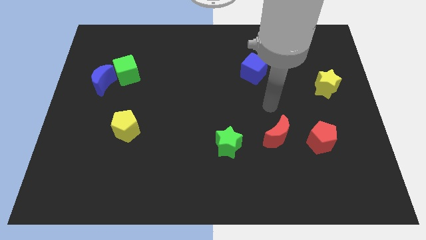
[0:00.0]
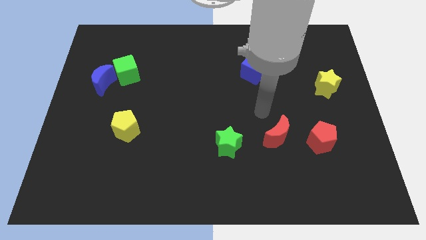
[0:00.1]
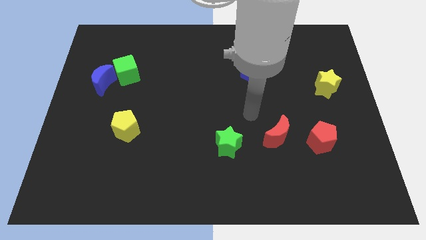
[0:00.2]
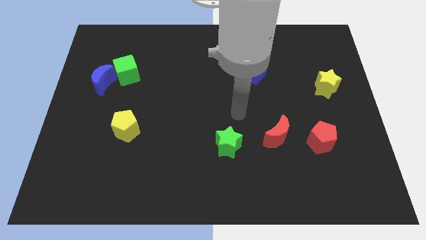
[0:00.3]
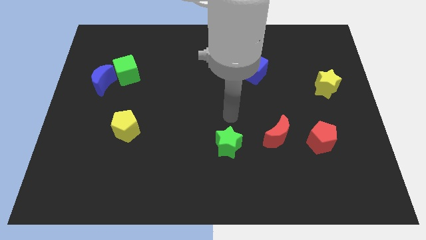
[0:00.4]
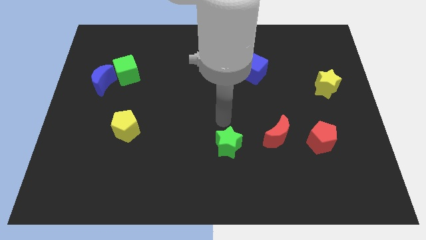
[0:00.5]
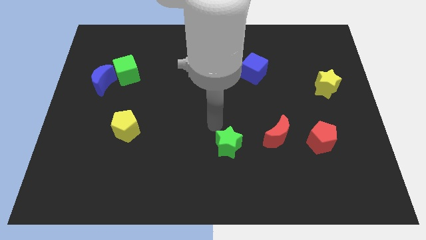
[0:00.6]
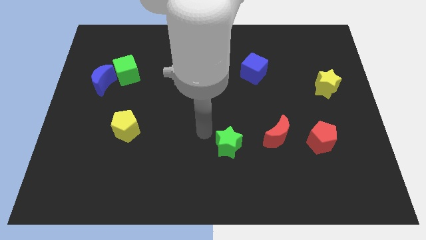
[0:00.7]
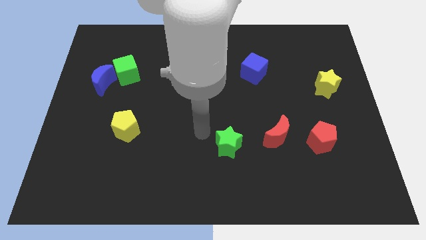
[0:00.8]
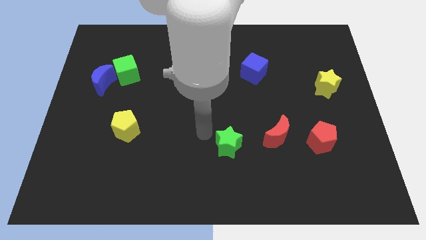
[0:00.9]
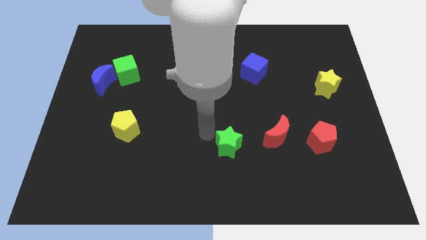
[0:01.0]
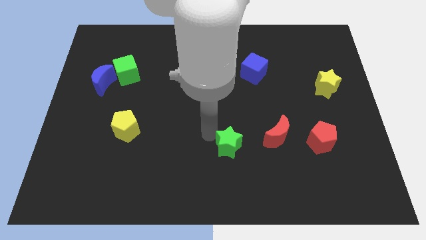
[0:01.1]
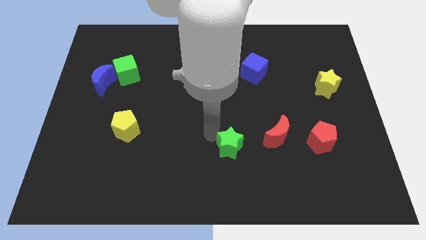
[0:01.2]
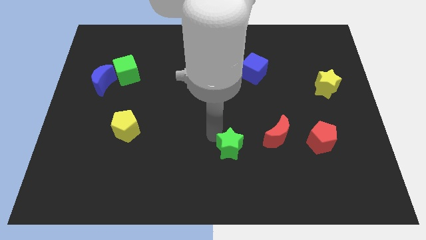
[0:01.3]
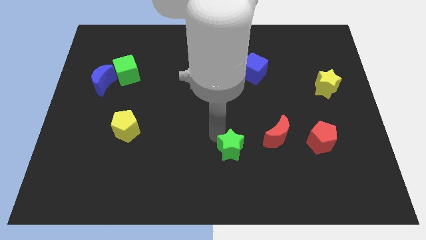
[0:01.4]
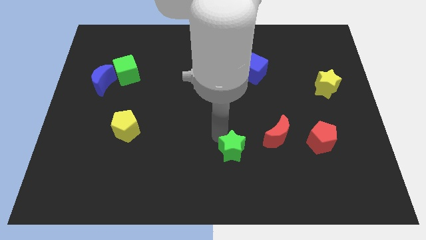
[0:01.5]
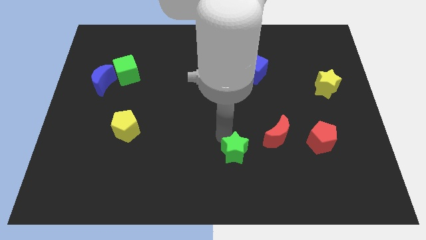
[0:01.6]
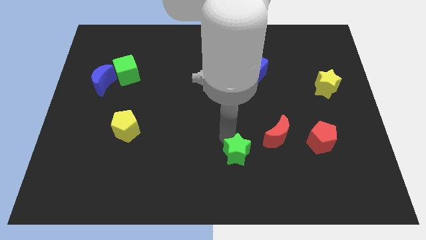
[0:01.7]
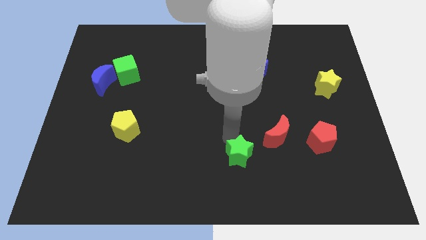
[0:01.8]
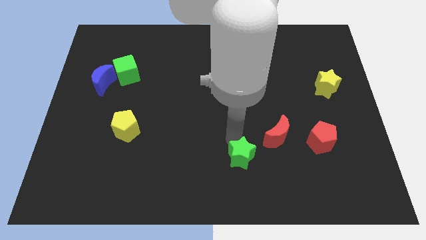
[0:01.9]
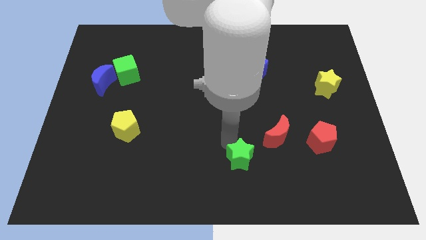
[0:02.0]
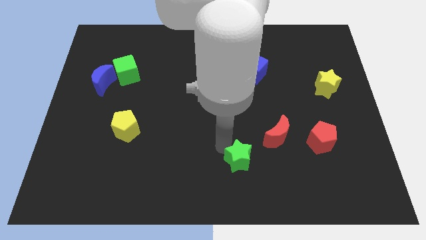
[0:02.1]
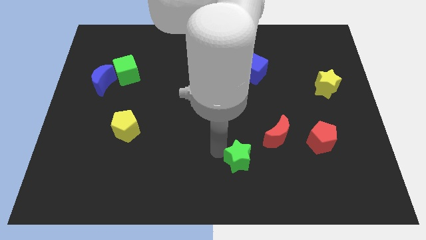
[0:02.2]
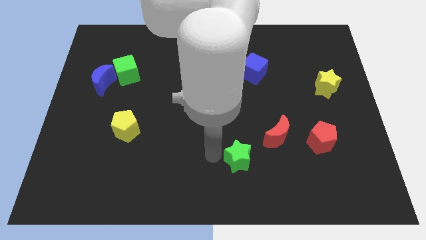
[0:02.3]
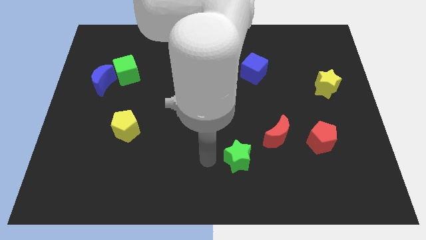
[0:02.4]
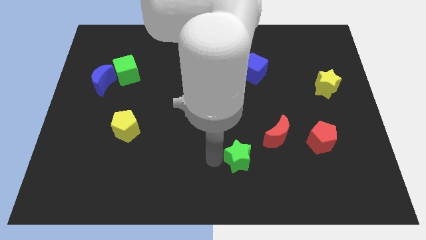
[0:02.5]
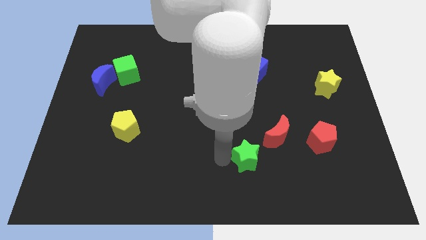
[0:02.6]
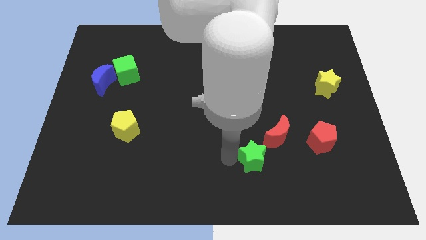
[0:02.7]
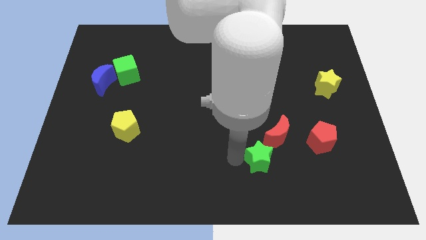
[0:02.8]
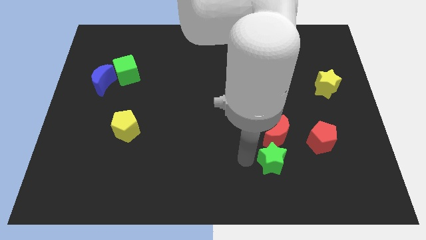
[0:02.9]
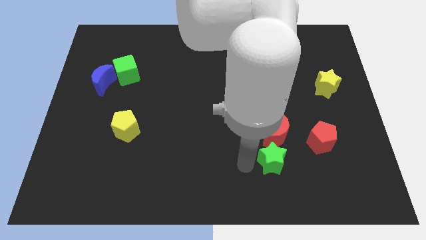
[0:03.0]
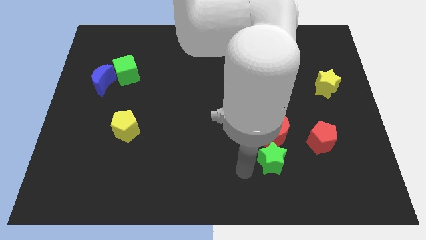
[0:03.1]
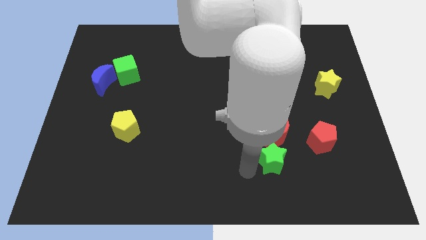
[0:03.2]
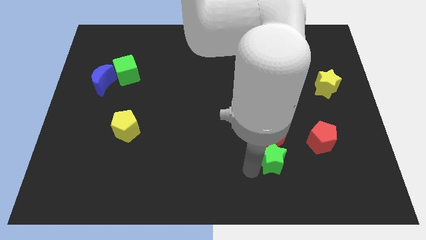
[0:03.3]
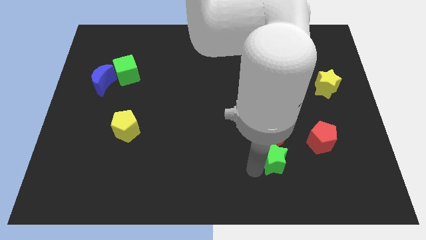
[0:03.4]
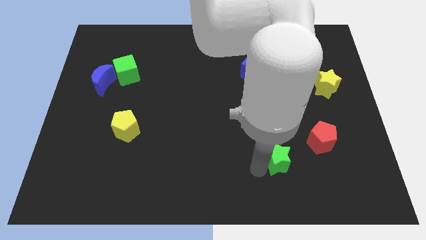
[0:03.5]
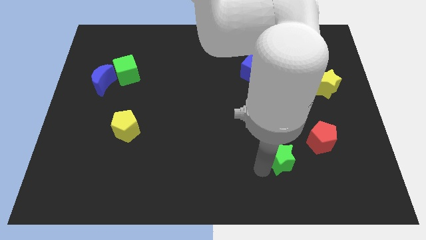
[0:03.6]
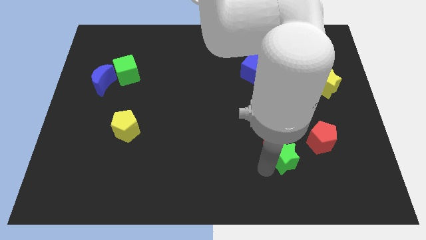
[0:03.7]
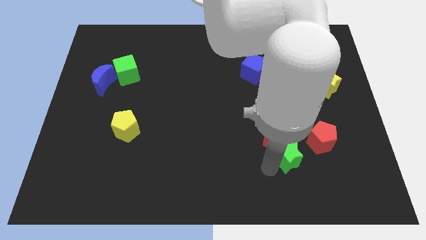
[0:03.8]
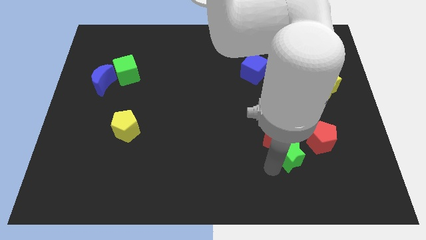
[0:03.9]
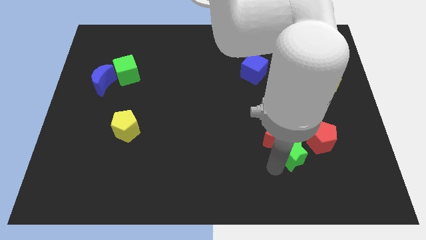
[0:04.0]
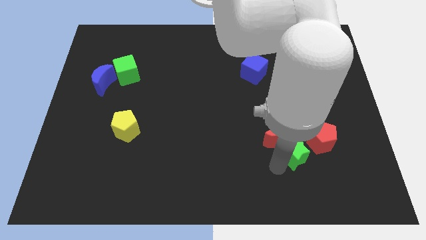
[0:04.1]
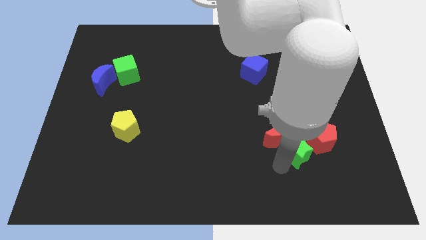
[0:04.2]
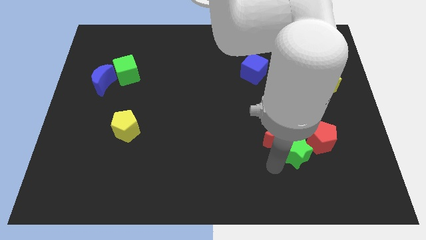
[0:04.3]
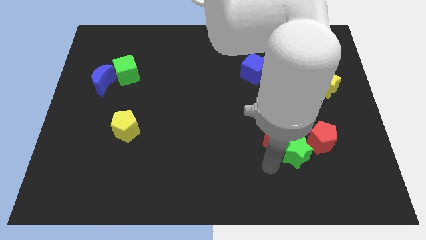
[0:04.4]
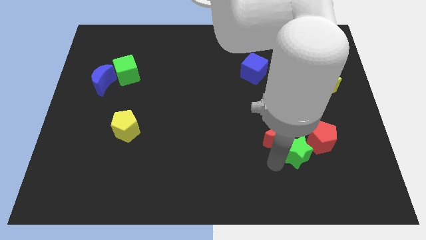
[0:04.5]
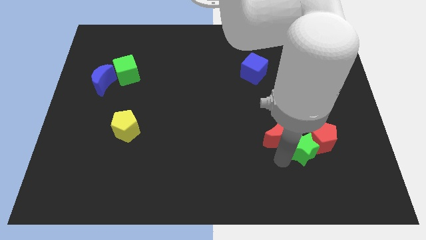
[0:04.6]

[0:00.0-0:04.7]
push the green star next to the red pentagon

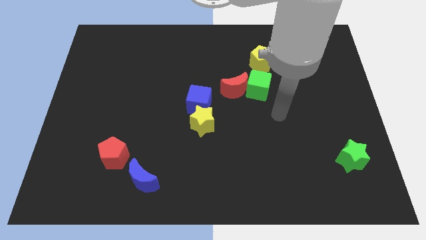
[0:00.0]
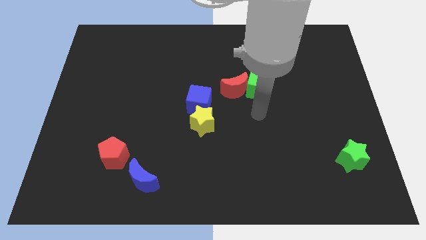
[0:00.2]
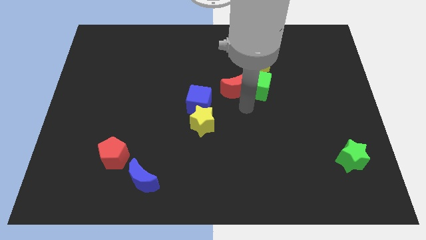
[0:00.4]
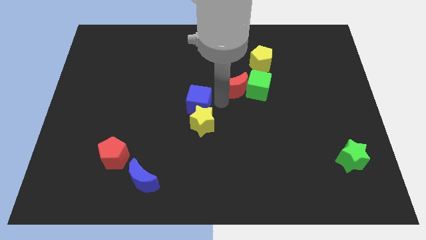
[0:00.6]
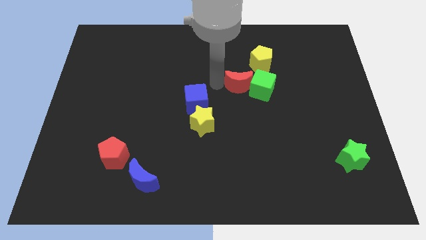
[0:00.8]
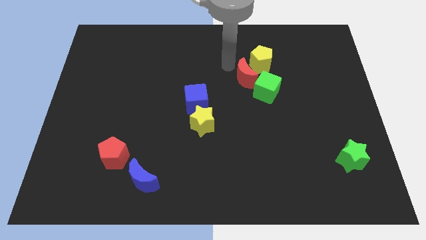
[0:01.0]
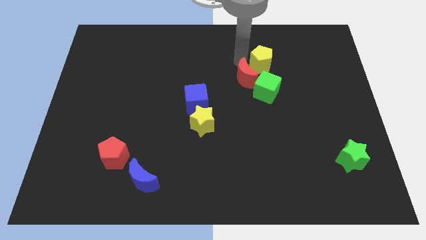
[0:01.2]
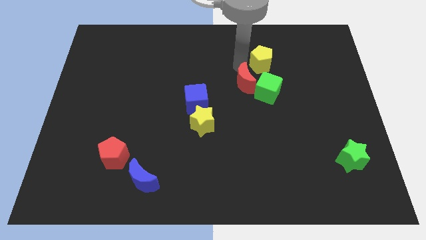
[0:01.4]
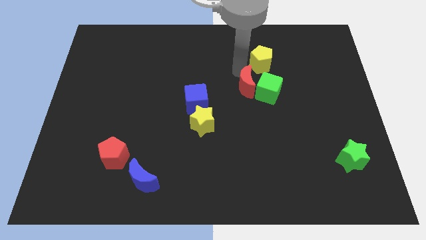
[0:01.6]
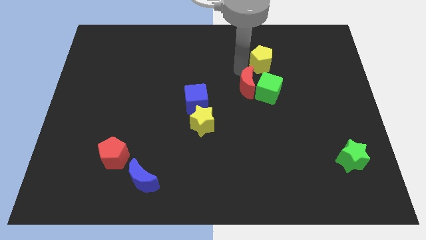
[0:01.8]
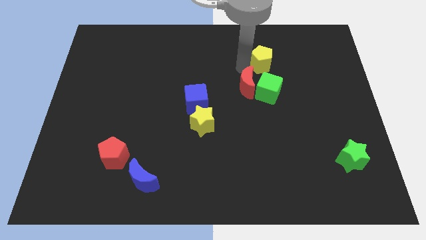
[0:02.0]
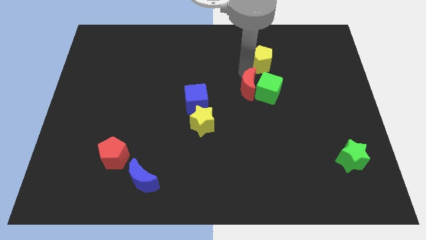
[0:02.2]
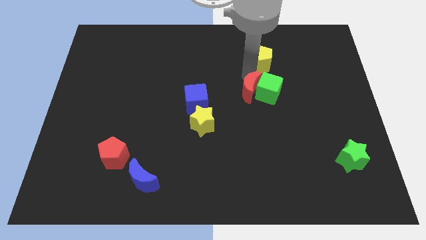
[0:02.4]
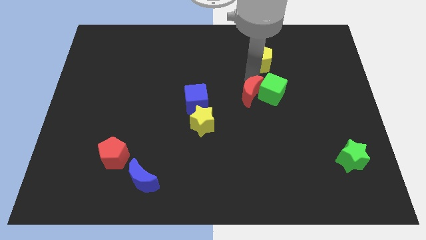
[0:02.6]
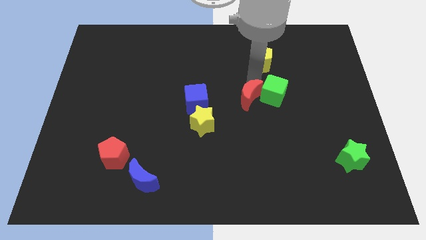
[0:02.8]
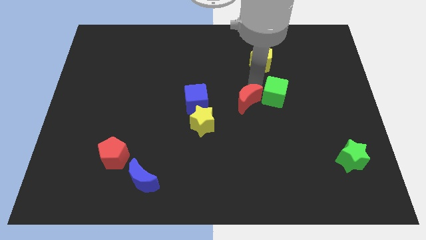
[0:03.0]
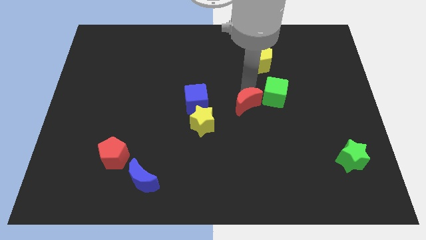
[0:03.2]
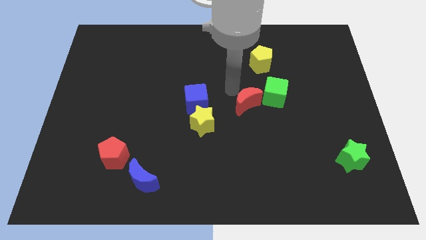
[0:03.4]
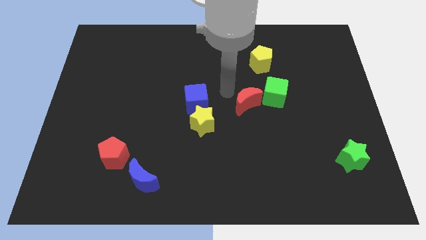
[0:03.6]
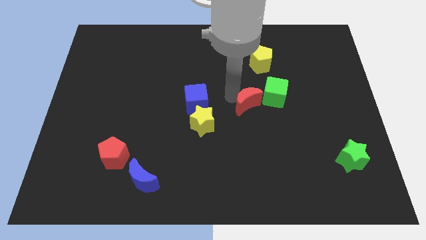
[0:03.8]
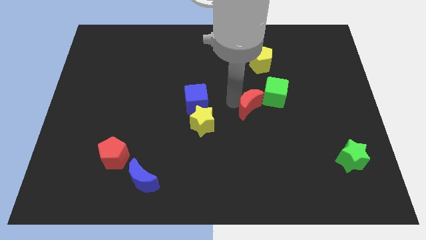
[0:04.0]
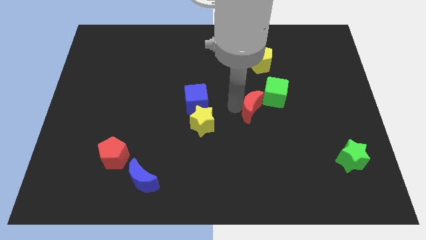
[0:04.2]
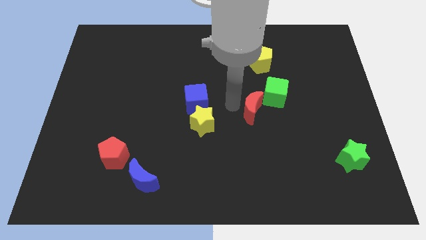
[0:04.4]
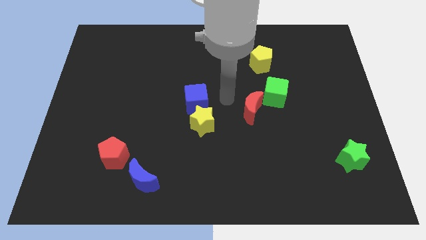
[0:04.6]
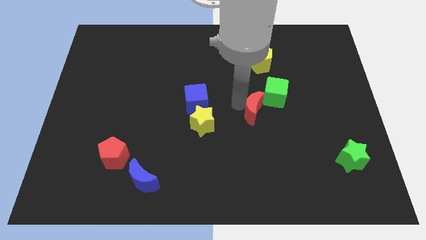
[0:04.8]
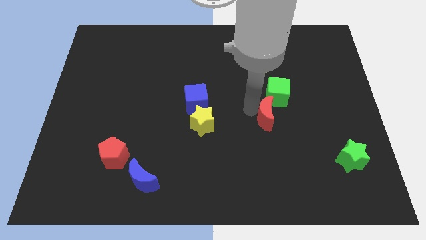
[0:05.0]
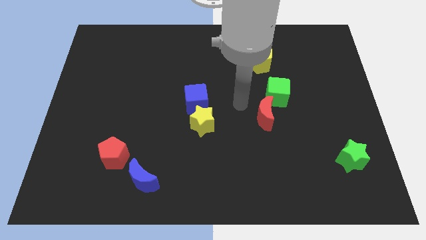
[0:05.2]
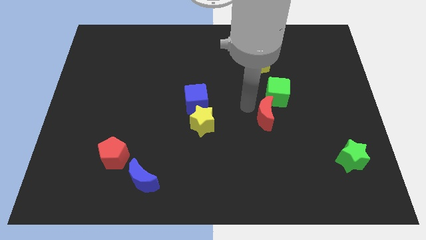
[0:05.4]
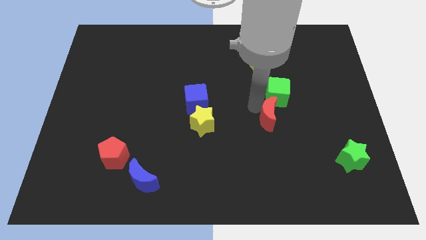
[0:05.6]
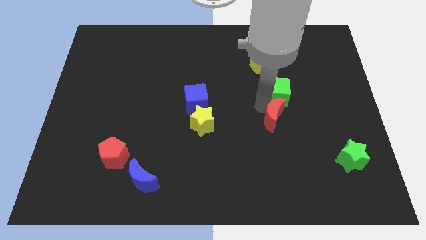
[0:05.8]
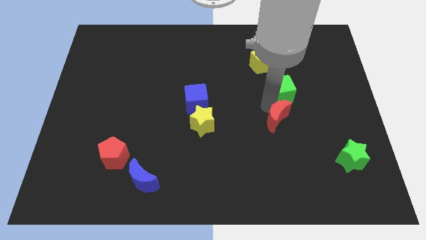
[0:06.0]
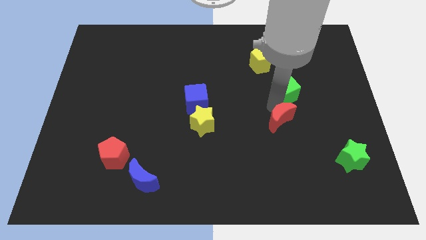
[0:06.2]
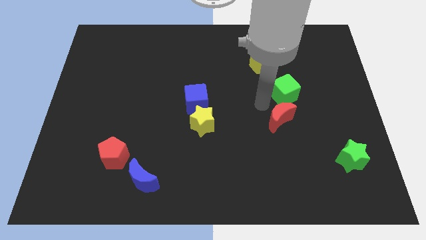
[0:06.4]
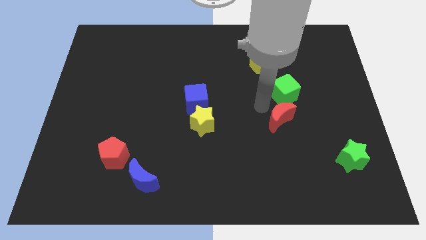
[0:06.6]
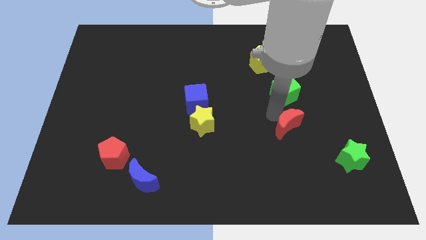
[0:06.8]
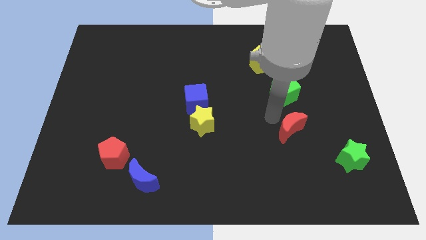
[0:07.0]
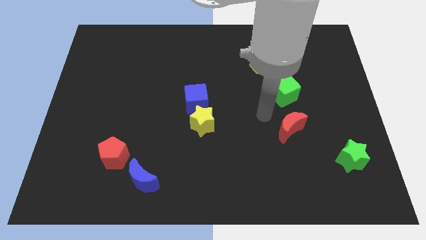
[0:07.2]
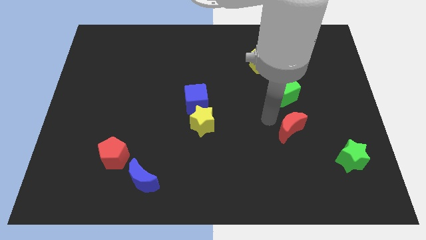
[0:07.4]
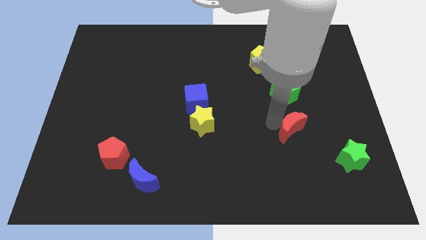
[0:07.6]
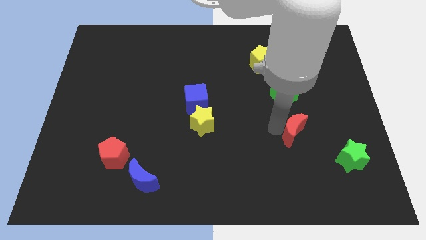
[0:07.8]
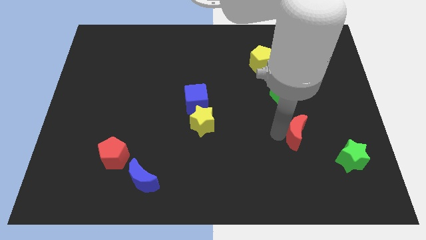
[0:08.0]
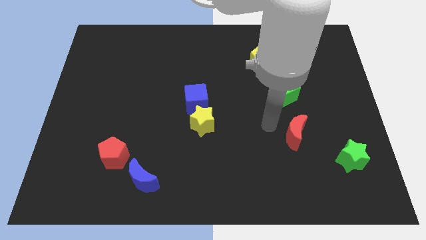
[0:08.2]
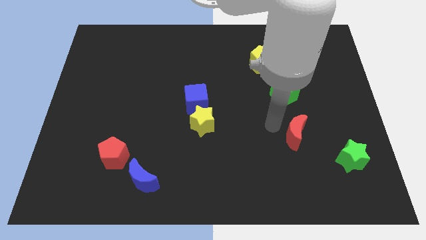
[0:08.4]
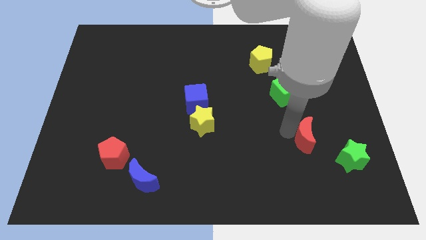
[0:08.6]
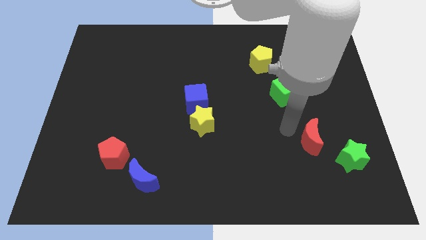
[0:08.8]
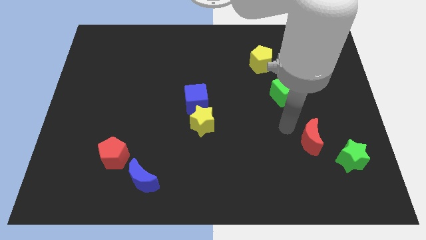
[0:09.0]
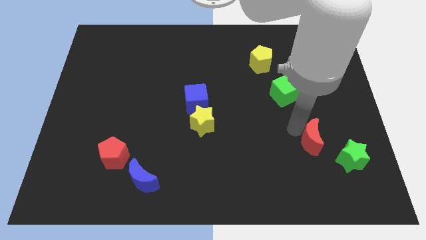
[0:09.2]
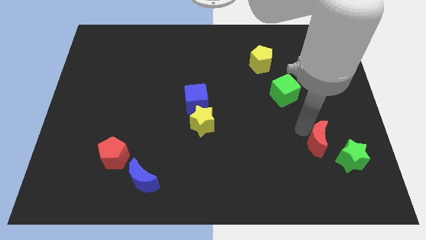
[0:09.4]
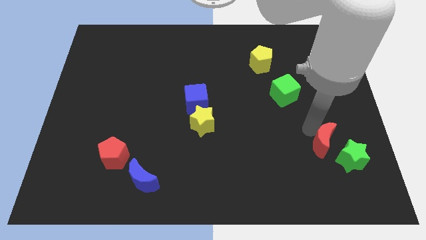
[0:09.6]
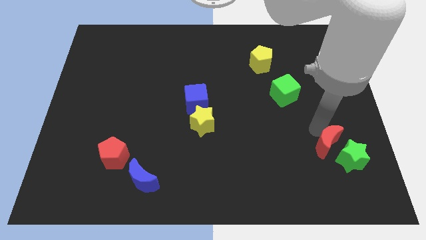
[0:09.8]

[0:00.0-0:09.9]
push the red moon towards the green star
